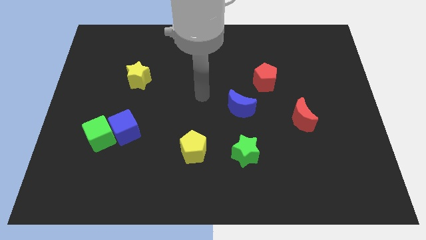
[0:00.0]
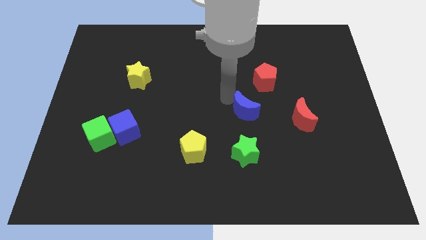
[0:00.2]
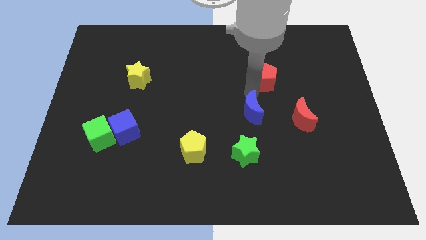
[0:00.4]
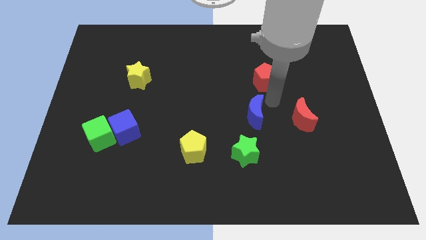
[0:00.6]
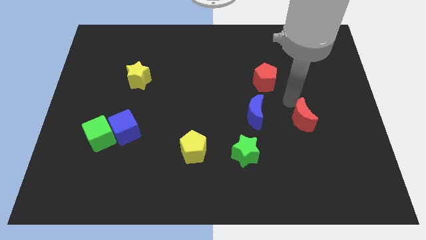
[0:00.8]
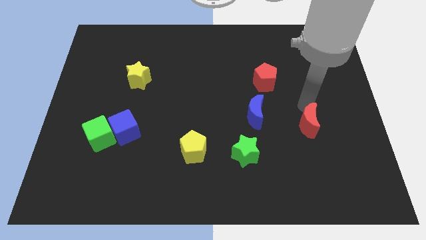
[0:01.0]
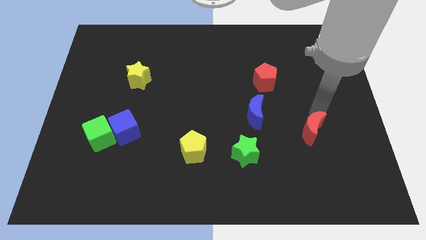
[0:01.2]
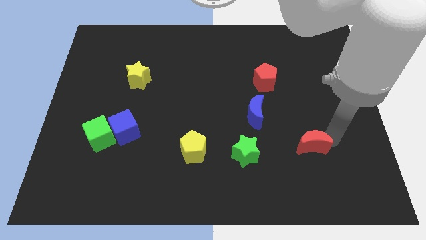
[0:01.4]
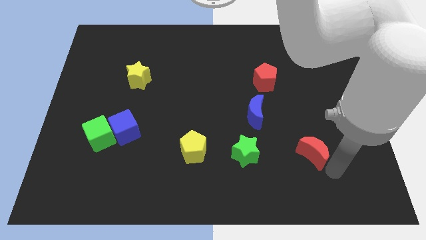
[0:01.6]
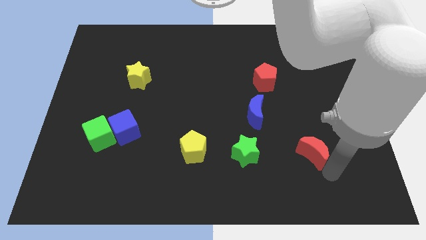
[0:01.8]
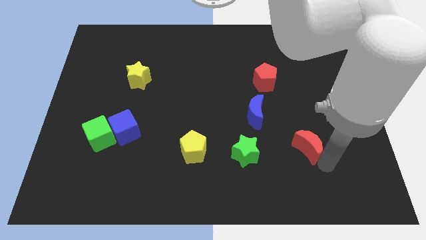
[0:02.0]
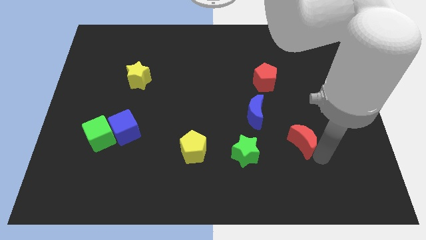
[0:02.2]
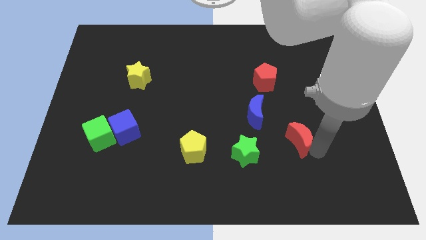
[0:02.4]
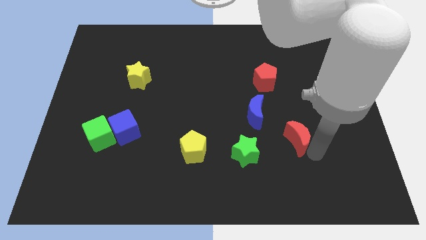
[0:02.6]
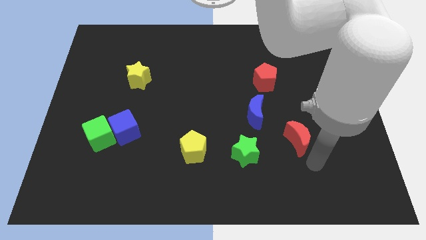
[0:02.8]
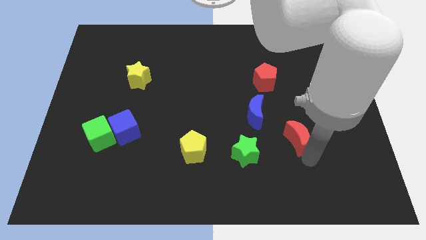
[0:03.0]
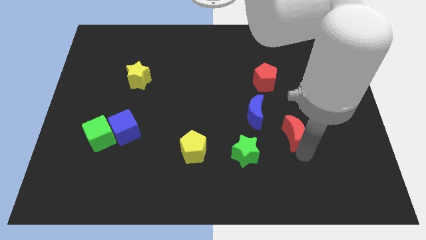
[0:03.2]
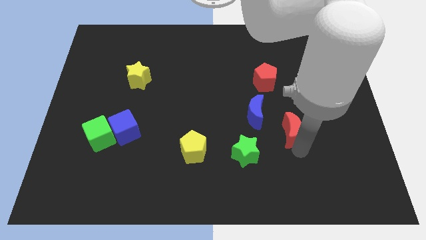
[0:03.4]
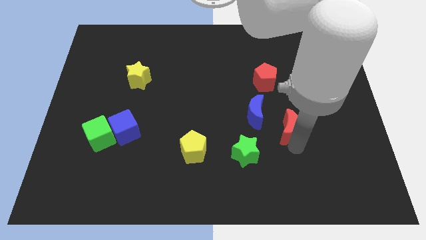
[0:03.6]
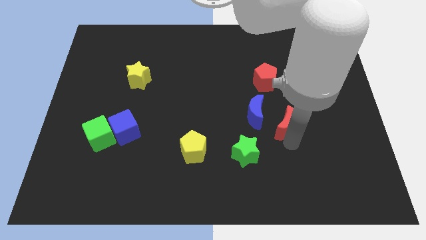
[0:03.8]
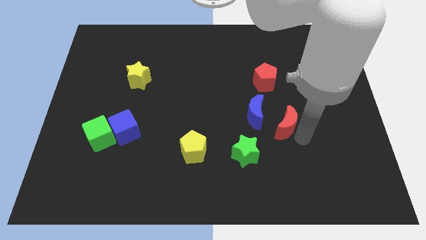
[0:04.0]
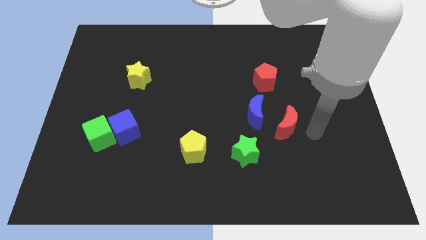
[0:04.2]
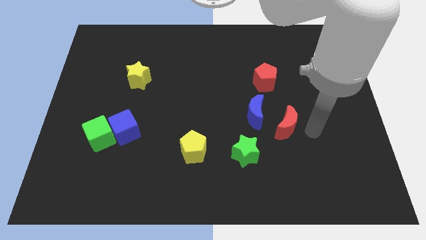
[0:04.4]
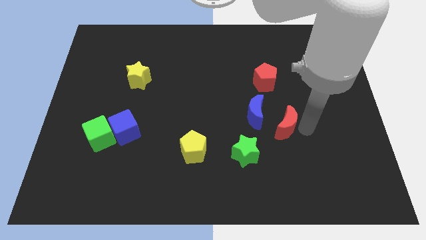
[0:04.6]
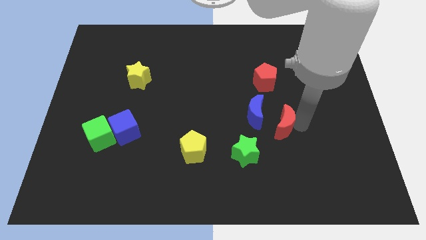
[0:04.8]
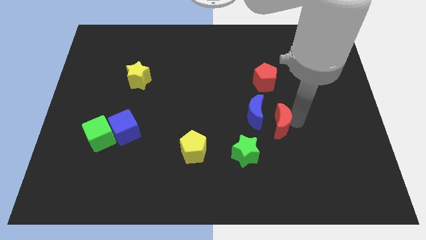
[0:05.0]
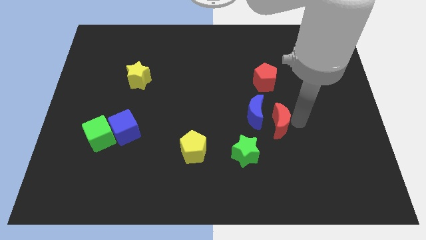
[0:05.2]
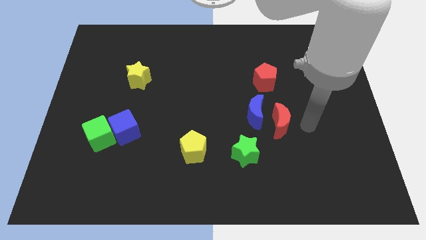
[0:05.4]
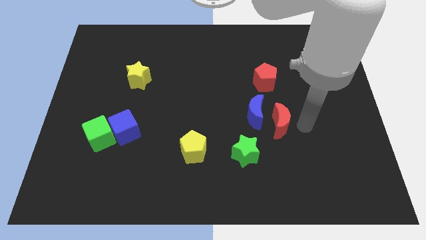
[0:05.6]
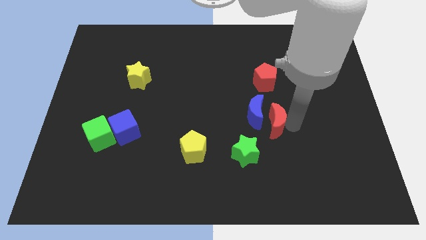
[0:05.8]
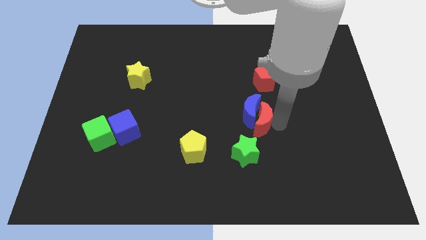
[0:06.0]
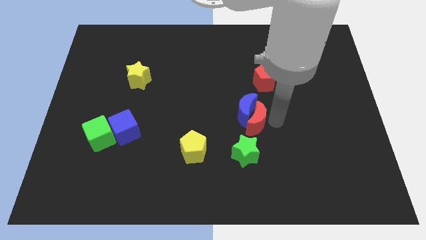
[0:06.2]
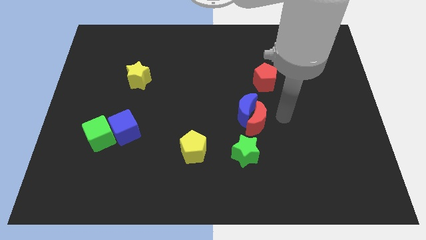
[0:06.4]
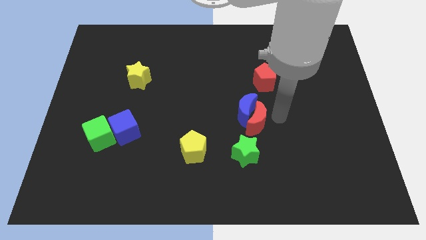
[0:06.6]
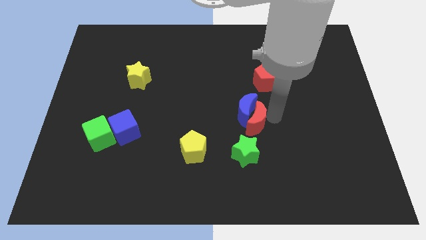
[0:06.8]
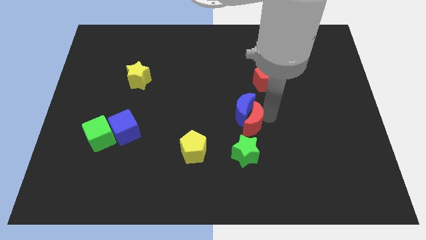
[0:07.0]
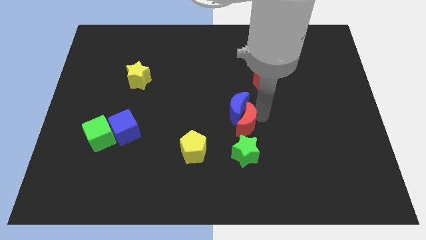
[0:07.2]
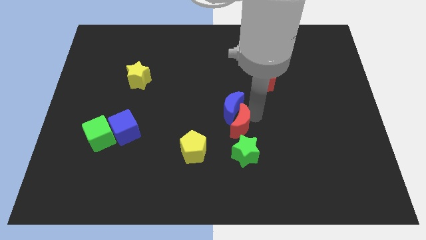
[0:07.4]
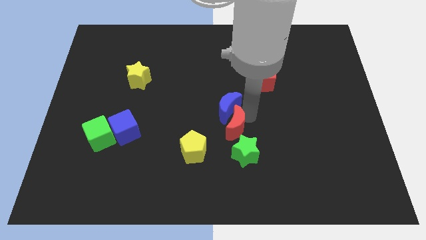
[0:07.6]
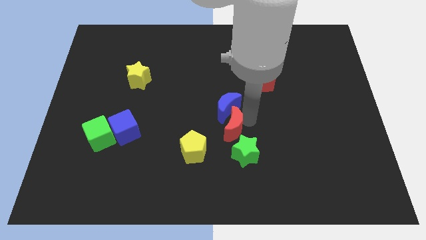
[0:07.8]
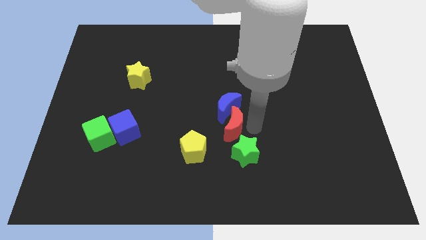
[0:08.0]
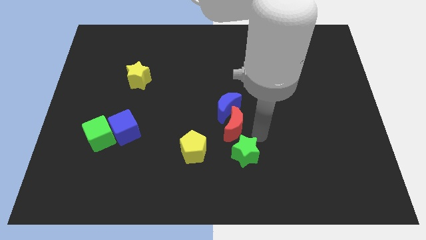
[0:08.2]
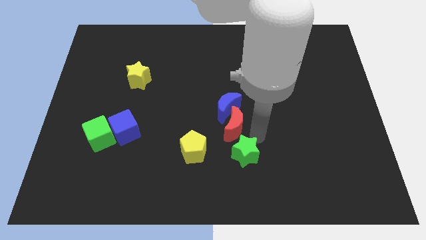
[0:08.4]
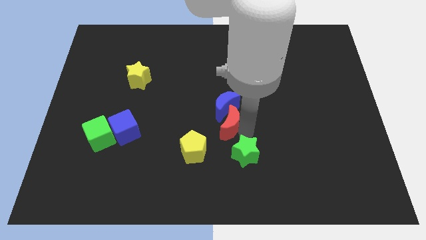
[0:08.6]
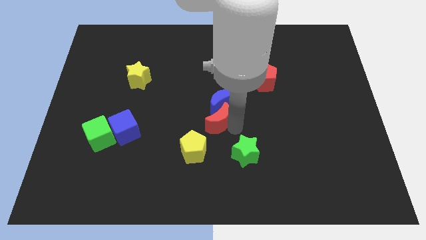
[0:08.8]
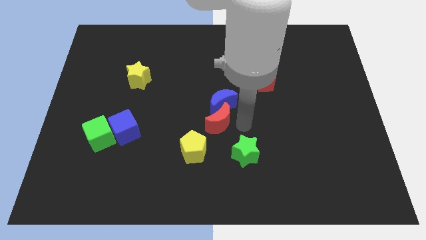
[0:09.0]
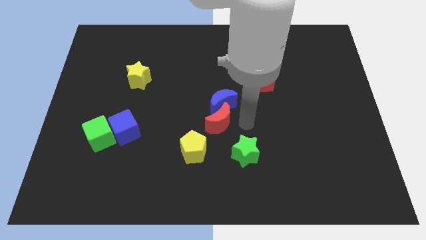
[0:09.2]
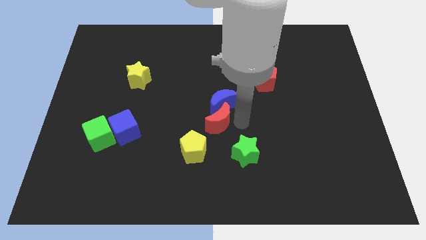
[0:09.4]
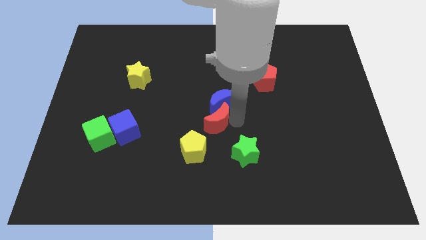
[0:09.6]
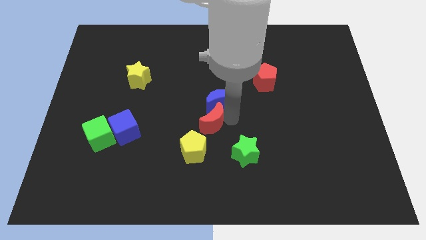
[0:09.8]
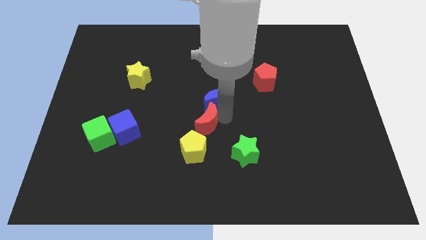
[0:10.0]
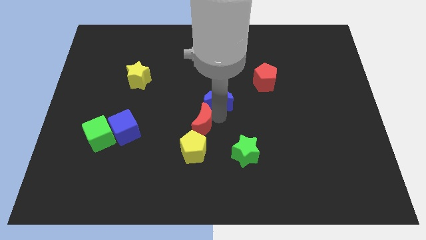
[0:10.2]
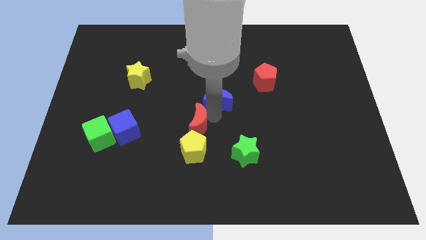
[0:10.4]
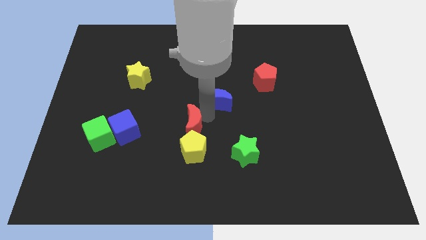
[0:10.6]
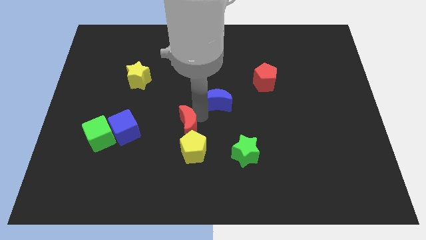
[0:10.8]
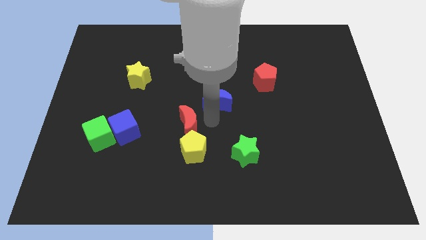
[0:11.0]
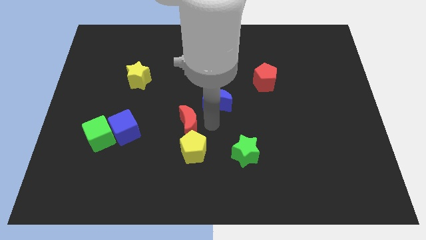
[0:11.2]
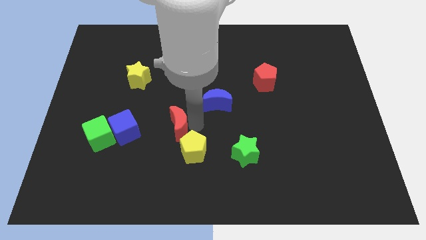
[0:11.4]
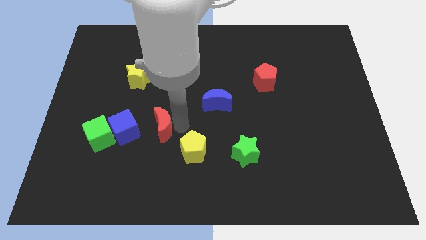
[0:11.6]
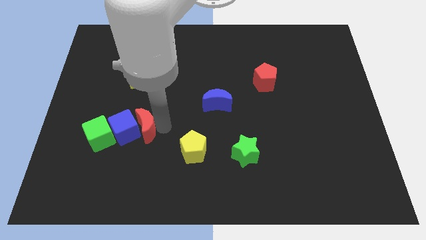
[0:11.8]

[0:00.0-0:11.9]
push the red moon towards the blue cube

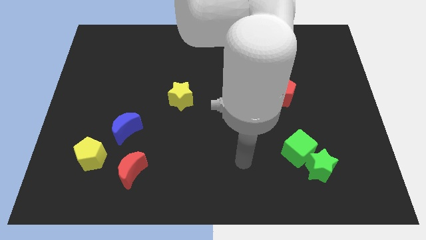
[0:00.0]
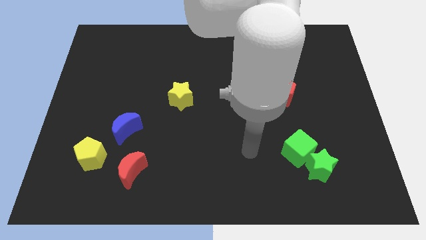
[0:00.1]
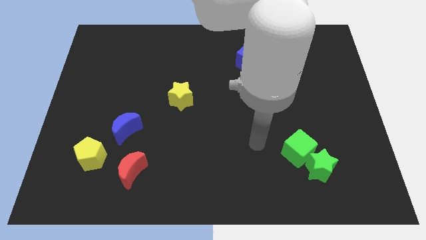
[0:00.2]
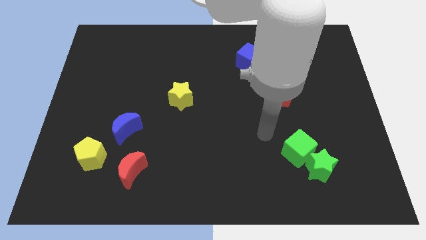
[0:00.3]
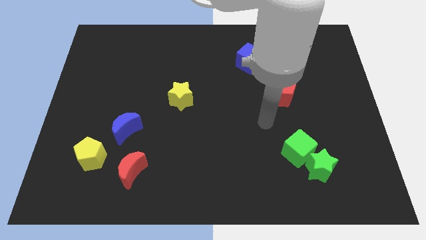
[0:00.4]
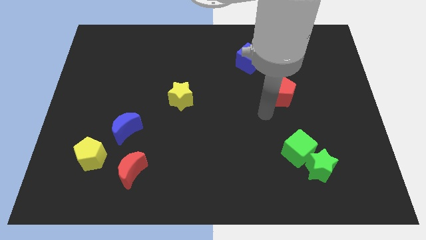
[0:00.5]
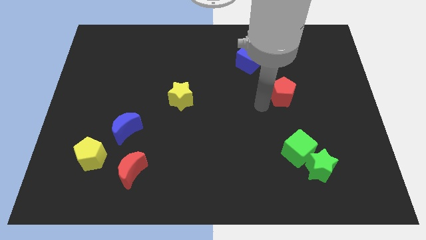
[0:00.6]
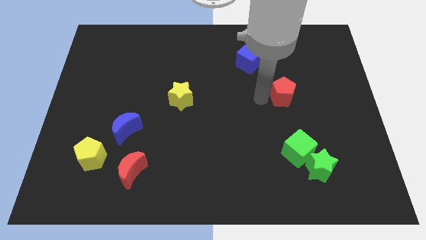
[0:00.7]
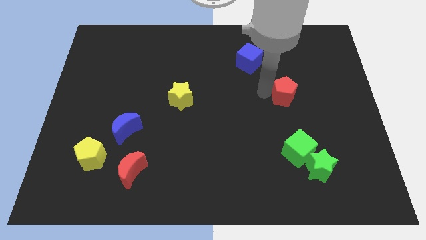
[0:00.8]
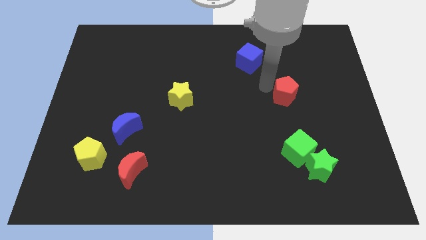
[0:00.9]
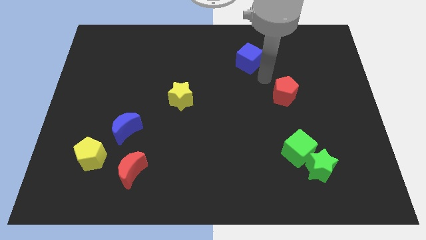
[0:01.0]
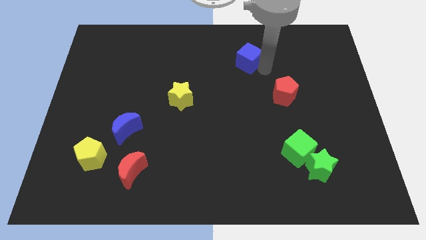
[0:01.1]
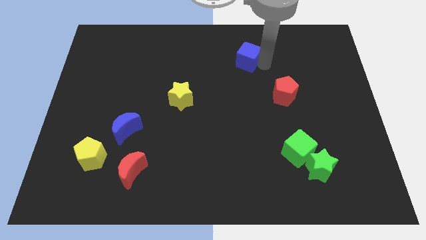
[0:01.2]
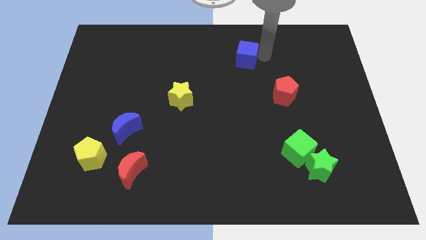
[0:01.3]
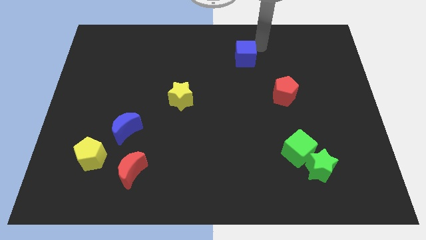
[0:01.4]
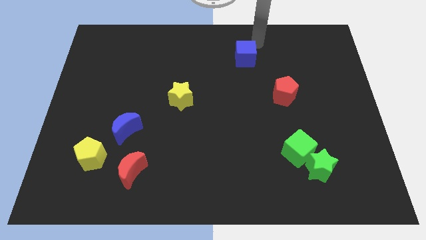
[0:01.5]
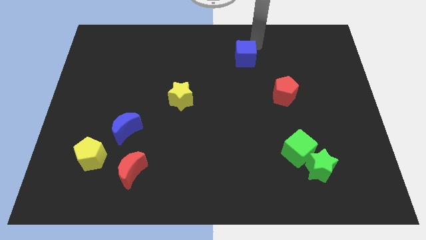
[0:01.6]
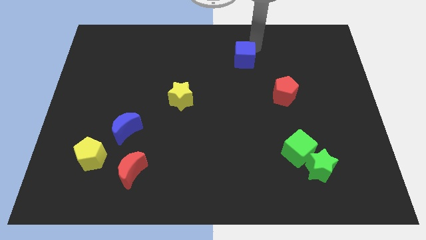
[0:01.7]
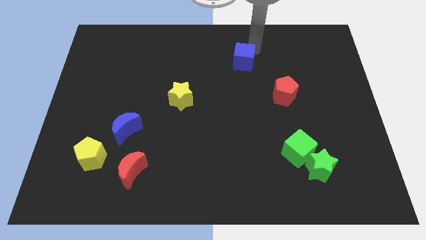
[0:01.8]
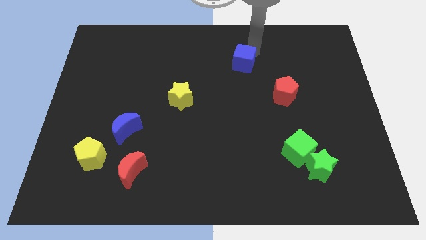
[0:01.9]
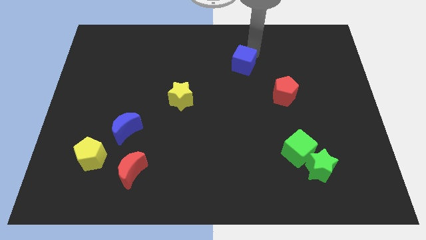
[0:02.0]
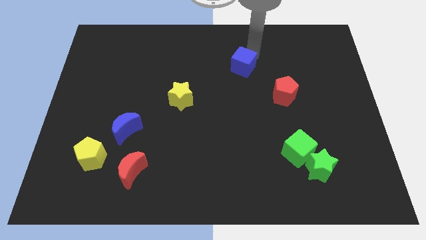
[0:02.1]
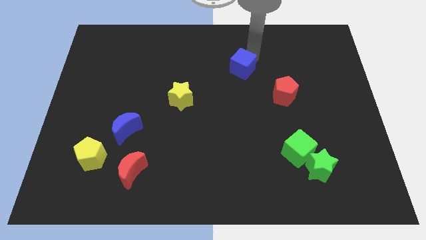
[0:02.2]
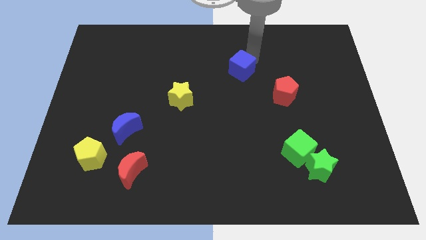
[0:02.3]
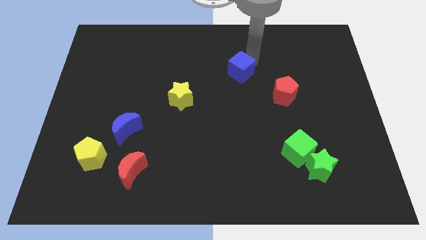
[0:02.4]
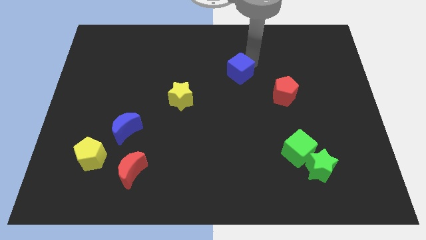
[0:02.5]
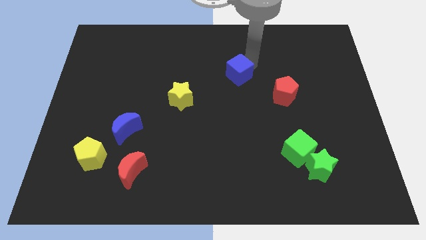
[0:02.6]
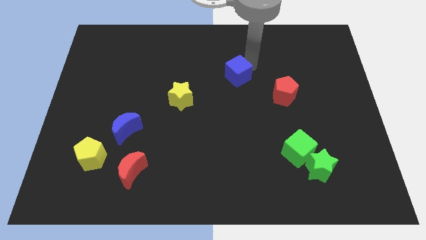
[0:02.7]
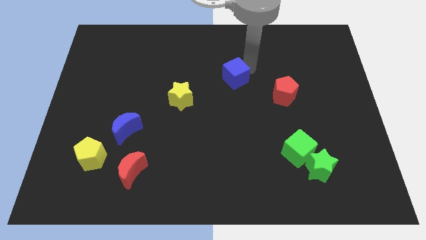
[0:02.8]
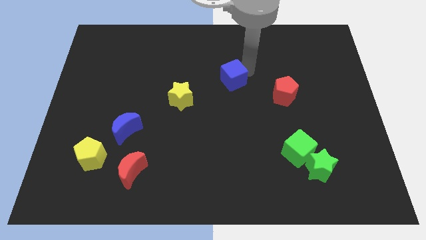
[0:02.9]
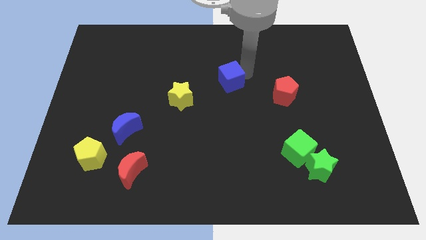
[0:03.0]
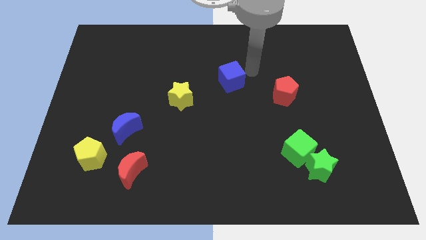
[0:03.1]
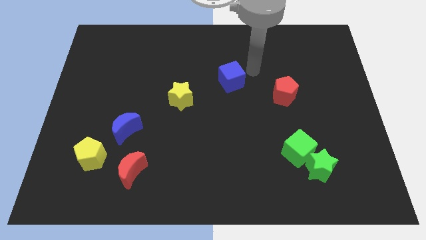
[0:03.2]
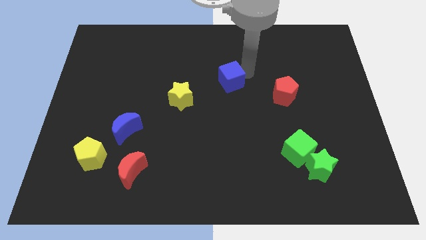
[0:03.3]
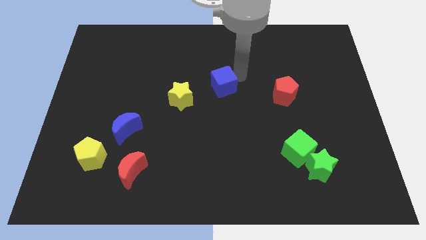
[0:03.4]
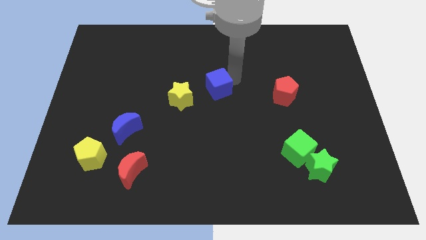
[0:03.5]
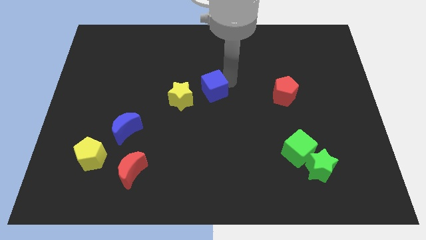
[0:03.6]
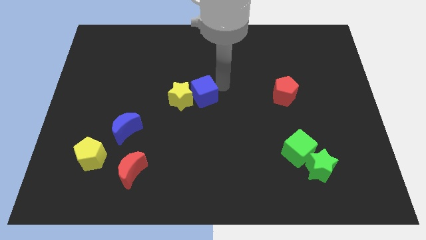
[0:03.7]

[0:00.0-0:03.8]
put the blue cube next to the yellow star
